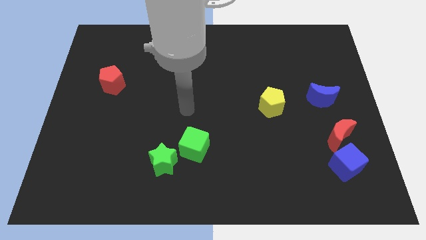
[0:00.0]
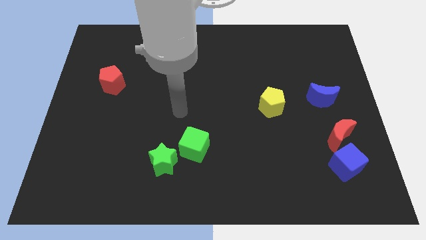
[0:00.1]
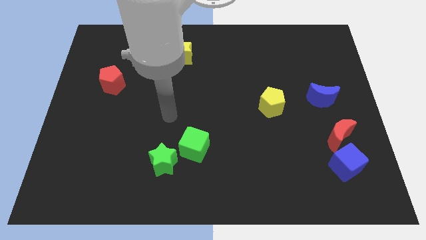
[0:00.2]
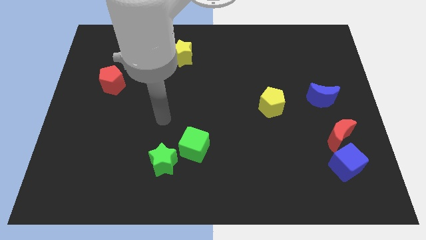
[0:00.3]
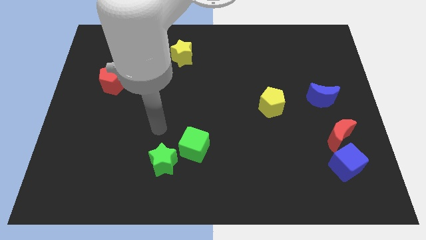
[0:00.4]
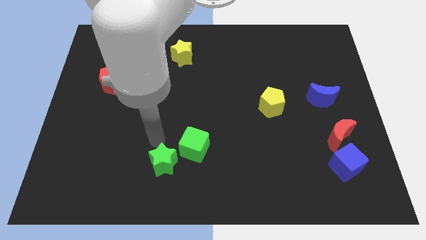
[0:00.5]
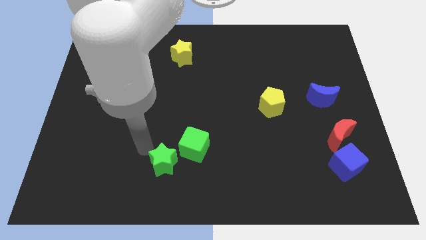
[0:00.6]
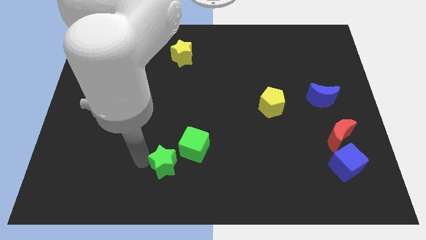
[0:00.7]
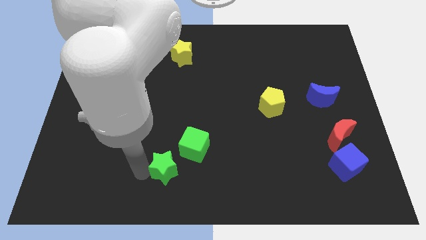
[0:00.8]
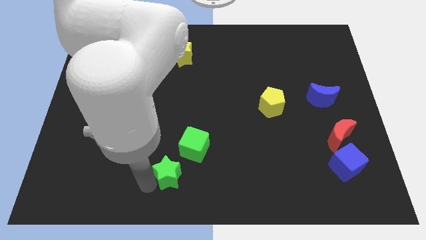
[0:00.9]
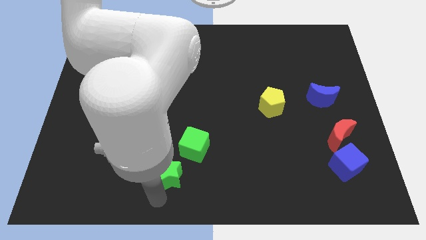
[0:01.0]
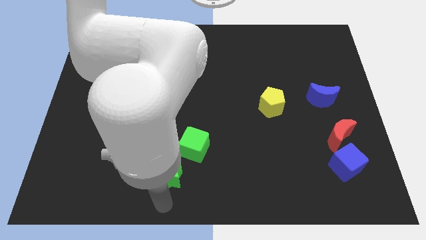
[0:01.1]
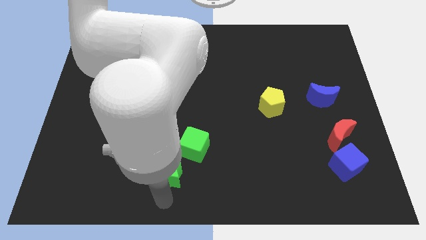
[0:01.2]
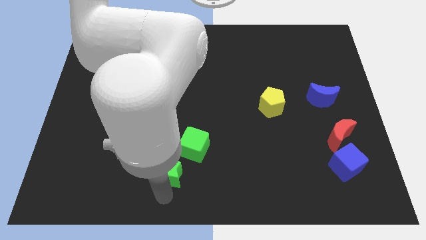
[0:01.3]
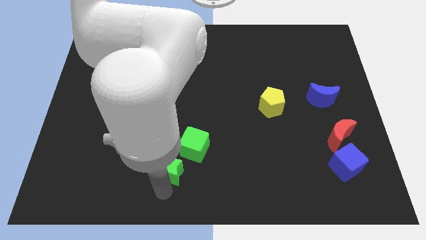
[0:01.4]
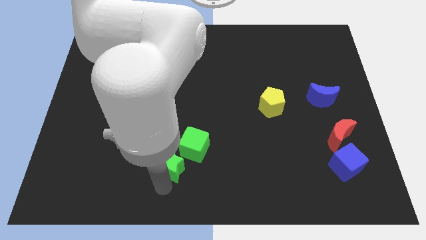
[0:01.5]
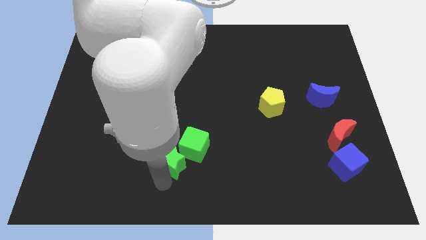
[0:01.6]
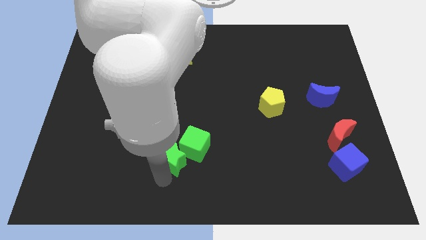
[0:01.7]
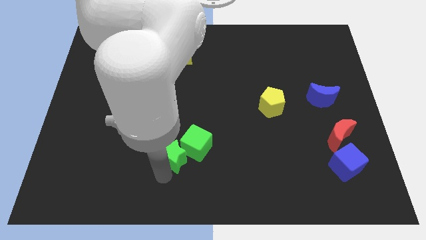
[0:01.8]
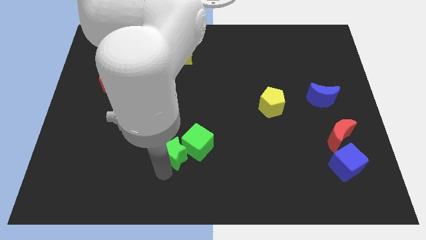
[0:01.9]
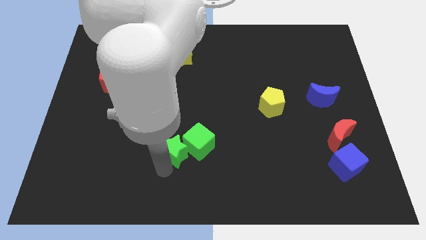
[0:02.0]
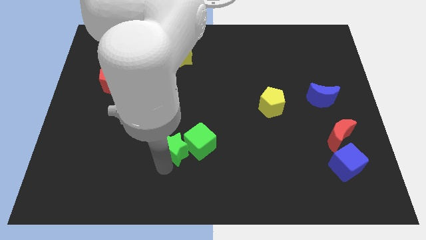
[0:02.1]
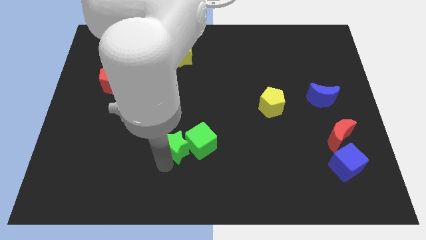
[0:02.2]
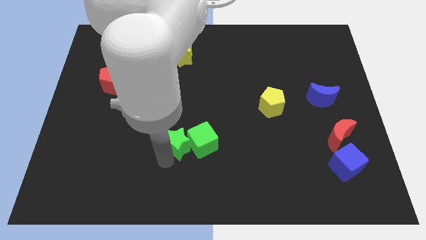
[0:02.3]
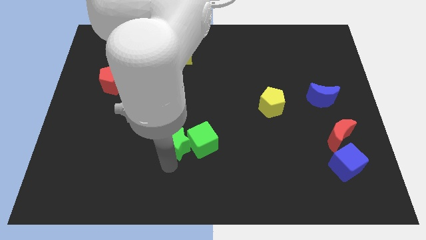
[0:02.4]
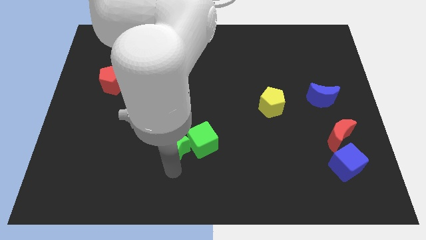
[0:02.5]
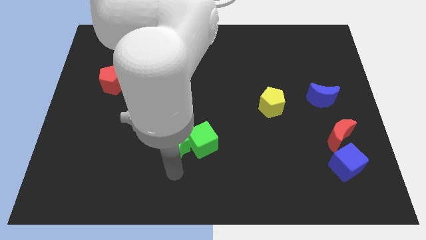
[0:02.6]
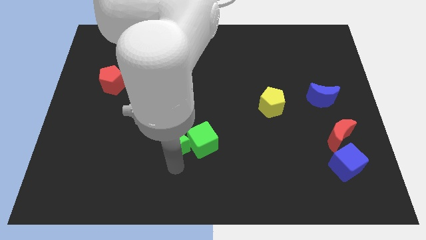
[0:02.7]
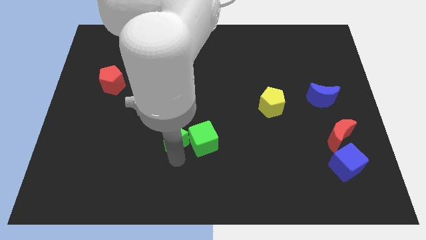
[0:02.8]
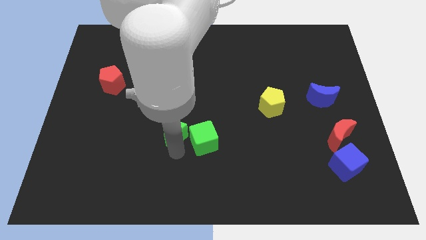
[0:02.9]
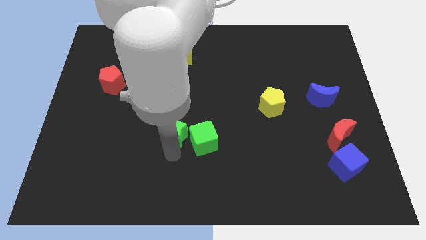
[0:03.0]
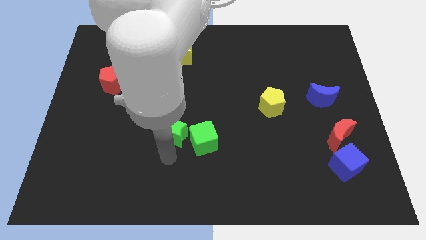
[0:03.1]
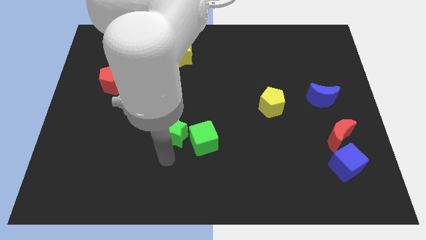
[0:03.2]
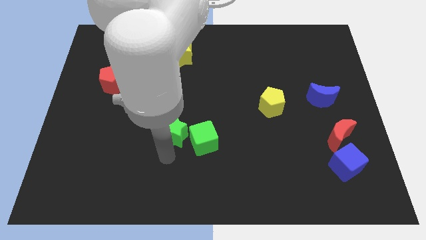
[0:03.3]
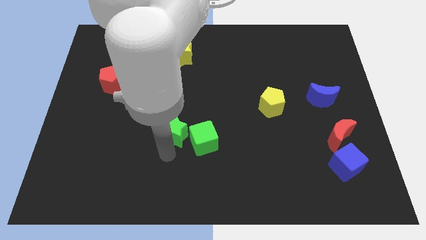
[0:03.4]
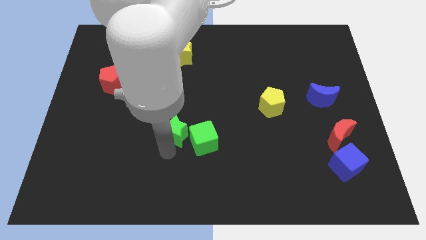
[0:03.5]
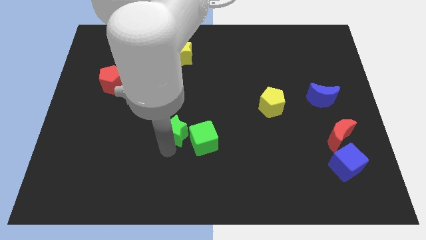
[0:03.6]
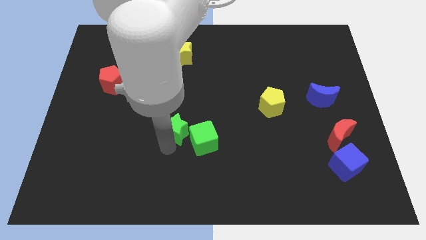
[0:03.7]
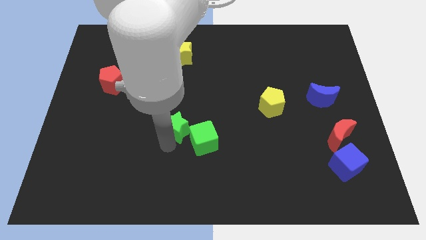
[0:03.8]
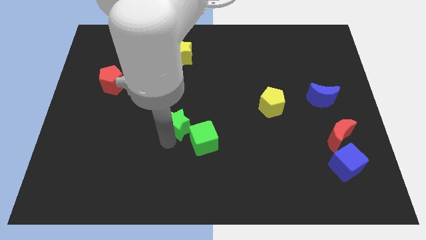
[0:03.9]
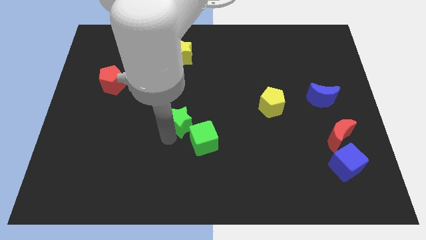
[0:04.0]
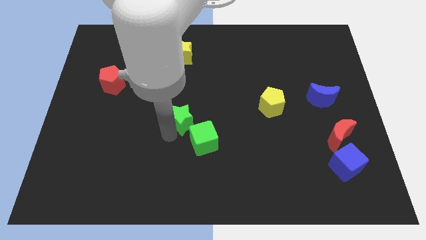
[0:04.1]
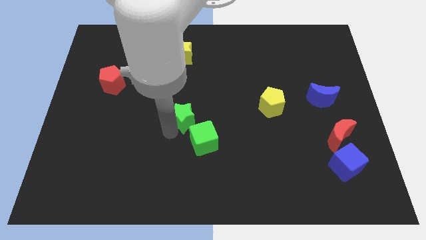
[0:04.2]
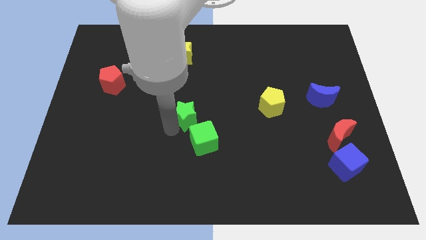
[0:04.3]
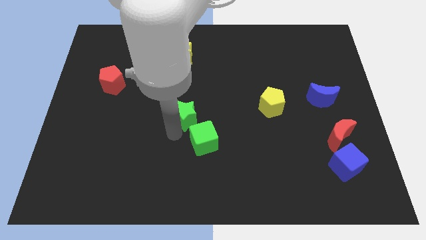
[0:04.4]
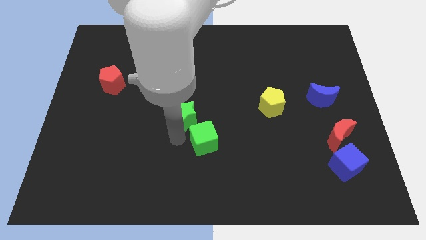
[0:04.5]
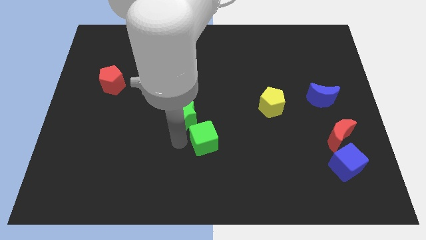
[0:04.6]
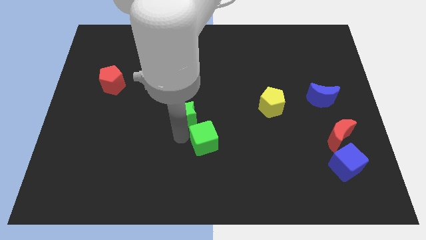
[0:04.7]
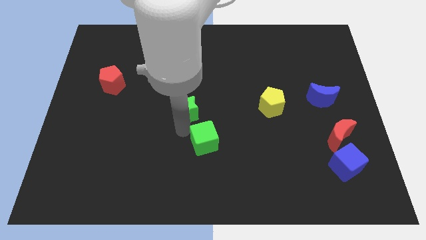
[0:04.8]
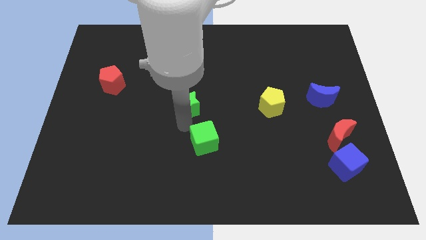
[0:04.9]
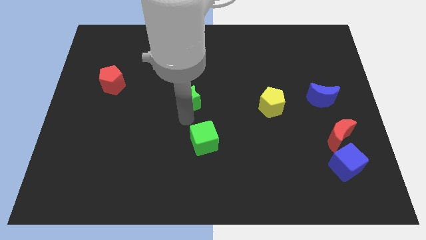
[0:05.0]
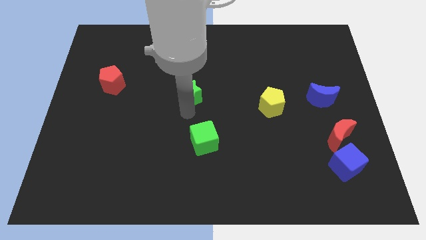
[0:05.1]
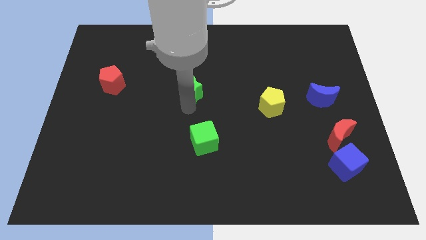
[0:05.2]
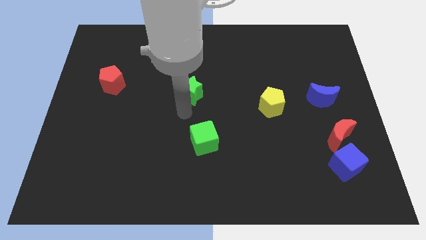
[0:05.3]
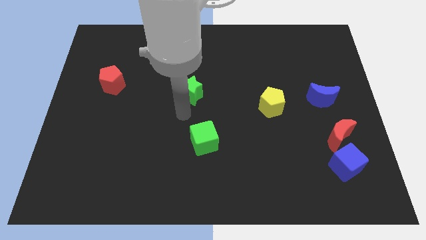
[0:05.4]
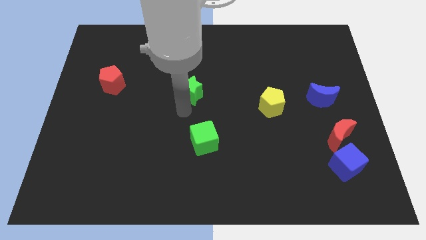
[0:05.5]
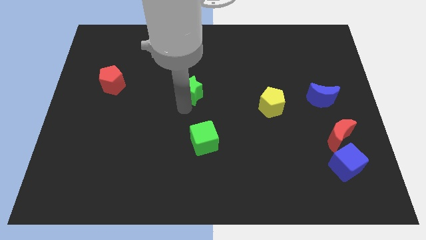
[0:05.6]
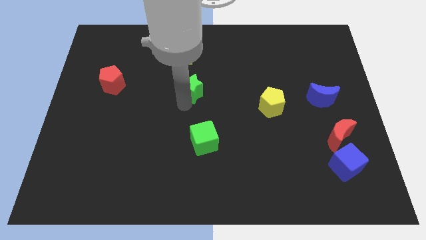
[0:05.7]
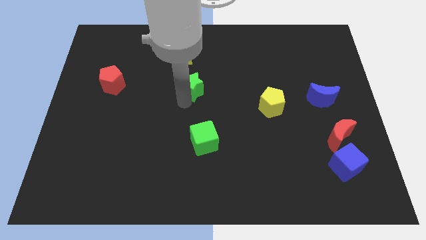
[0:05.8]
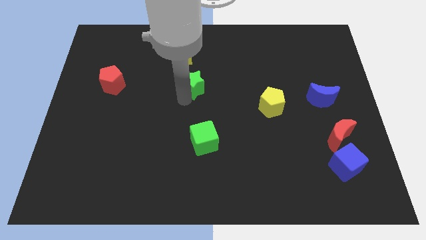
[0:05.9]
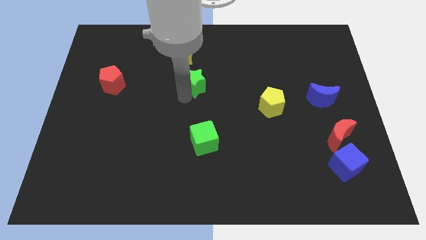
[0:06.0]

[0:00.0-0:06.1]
move the green star to the bottom right side of the yellow star

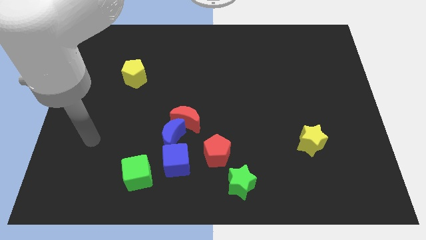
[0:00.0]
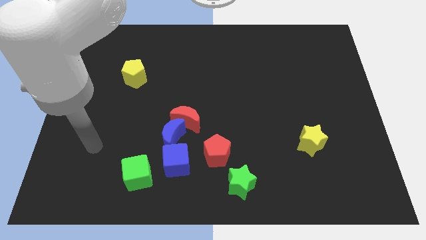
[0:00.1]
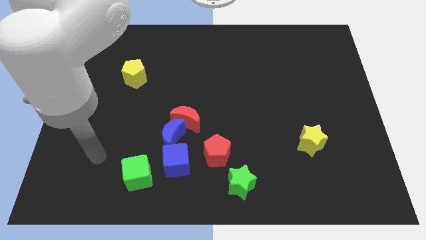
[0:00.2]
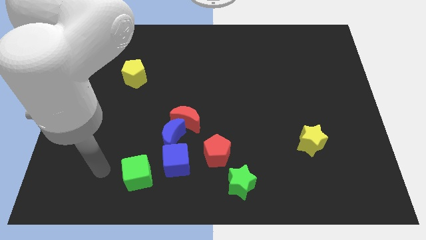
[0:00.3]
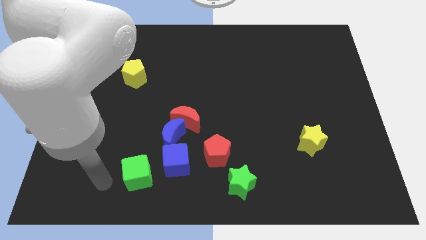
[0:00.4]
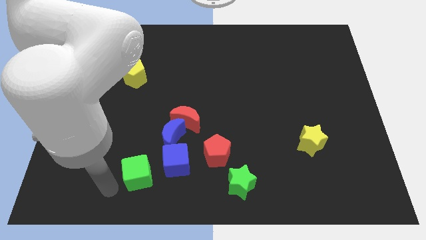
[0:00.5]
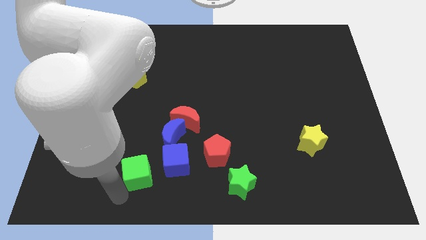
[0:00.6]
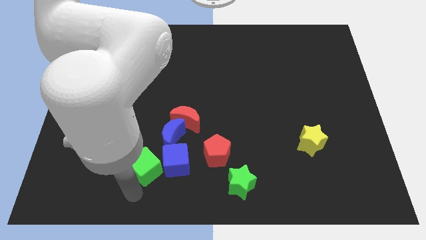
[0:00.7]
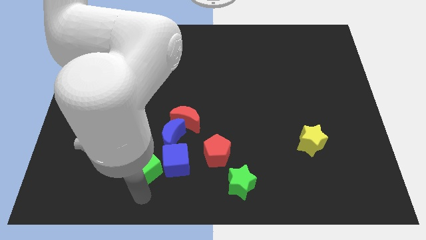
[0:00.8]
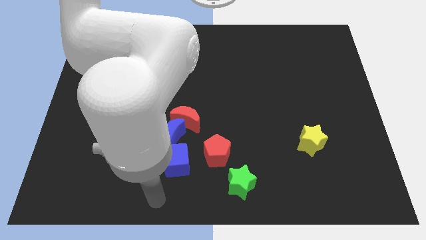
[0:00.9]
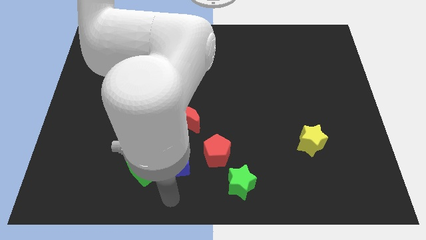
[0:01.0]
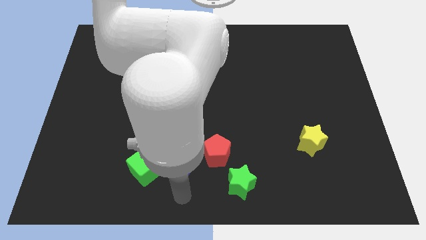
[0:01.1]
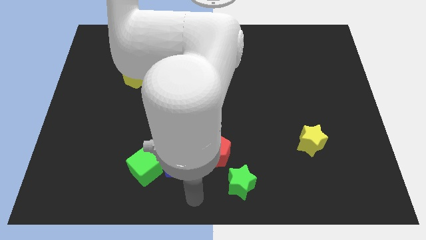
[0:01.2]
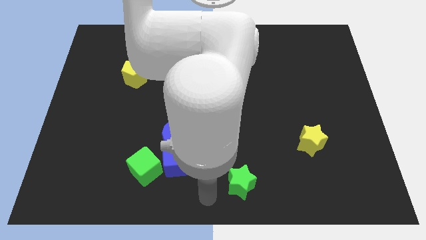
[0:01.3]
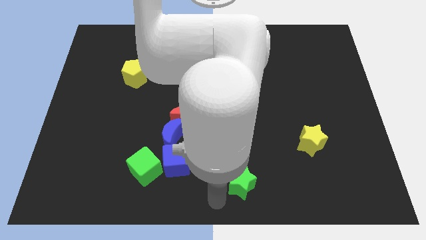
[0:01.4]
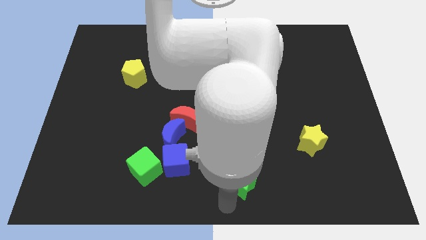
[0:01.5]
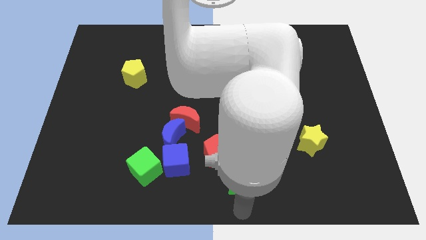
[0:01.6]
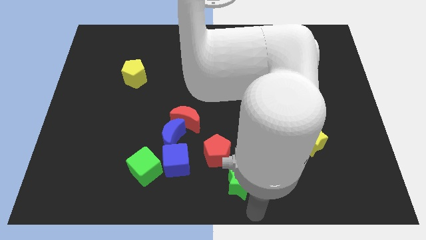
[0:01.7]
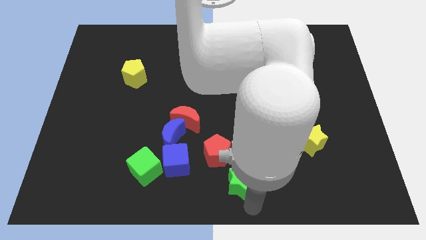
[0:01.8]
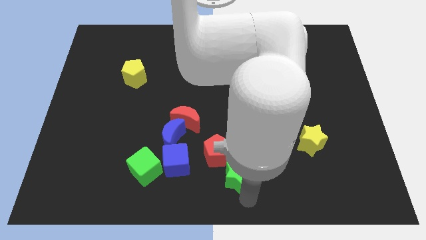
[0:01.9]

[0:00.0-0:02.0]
slide the green star to the right side of the blue cube
